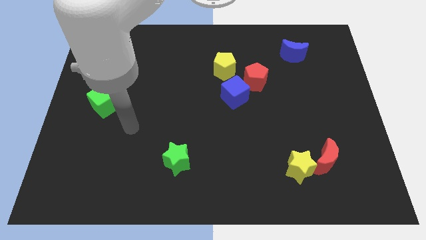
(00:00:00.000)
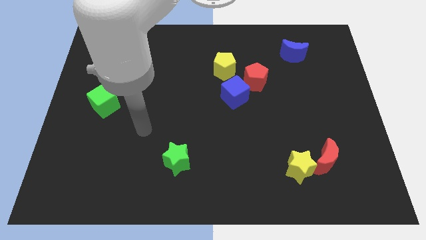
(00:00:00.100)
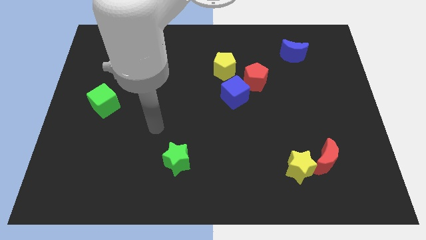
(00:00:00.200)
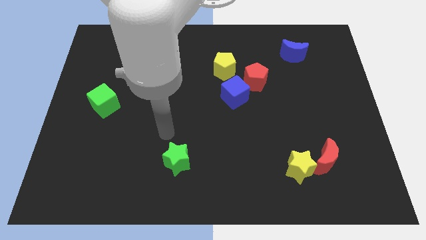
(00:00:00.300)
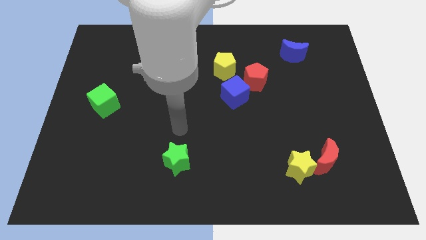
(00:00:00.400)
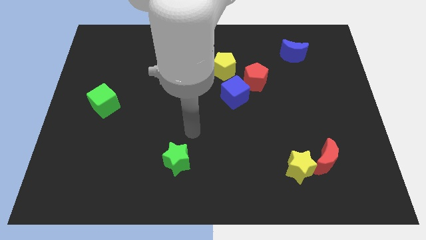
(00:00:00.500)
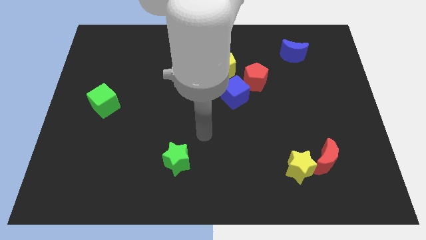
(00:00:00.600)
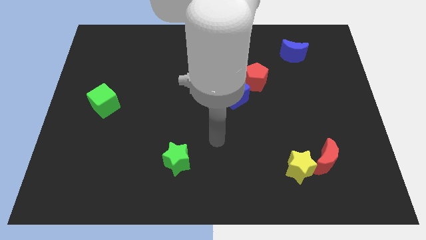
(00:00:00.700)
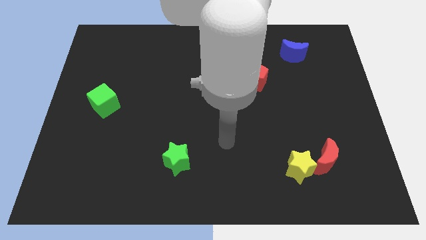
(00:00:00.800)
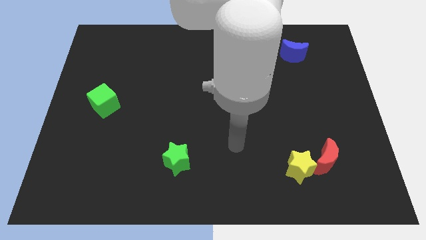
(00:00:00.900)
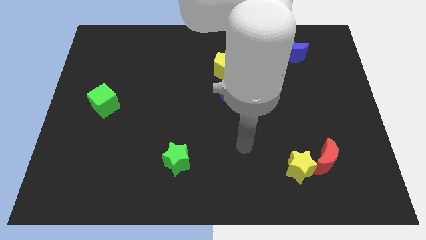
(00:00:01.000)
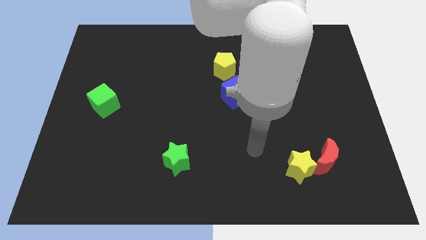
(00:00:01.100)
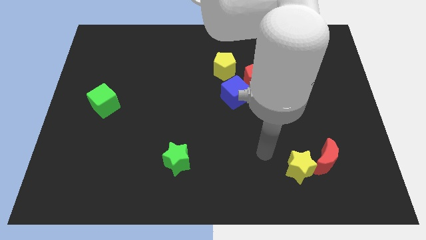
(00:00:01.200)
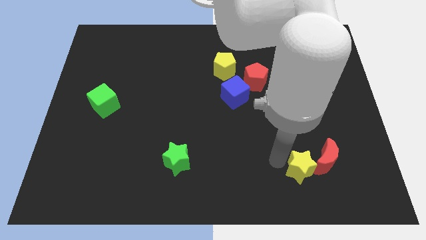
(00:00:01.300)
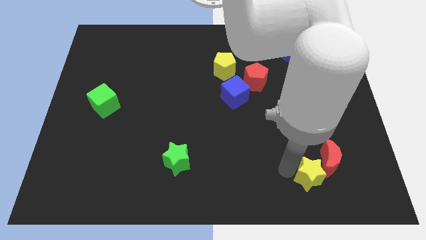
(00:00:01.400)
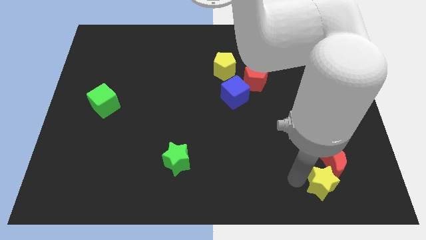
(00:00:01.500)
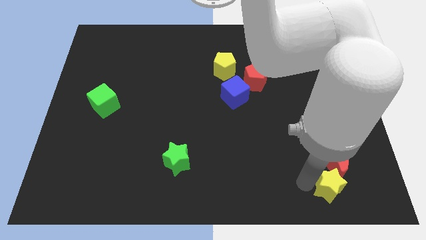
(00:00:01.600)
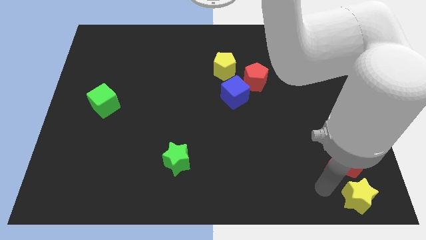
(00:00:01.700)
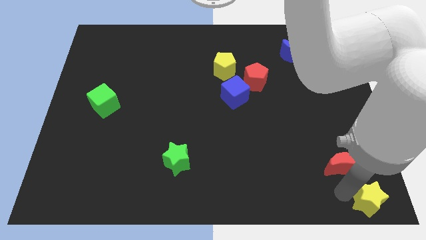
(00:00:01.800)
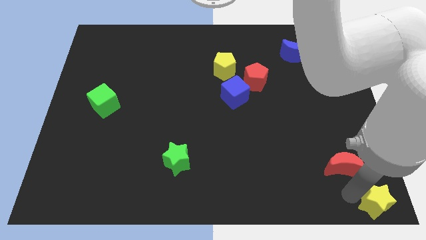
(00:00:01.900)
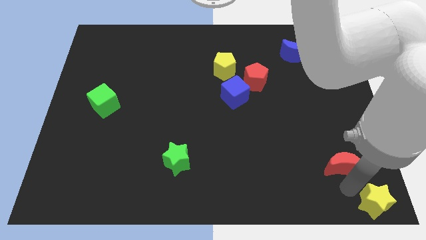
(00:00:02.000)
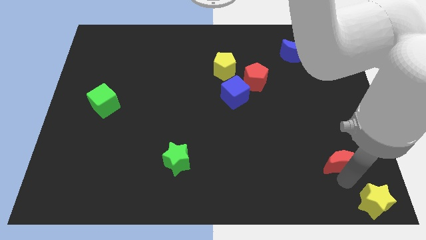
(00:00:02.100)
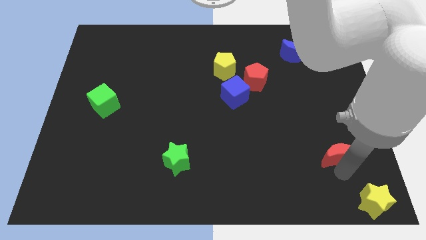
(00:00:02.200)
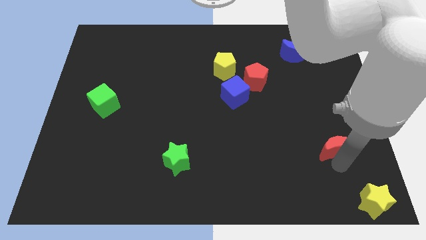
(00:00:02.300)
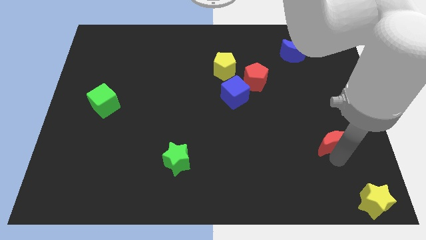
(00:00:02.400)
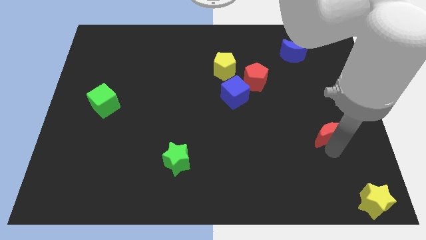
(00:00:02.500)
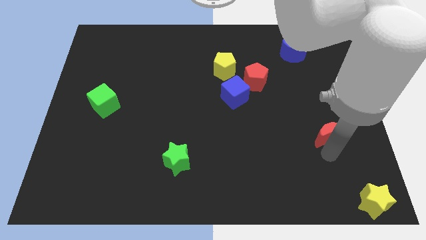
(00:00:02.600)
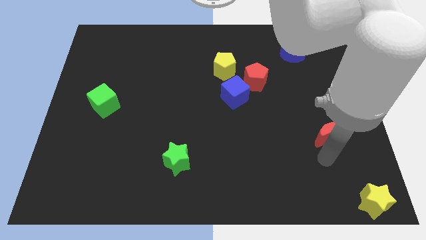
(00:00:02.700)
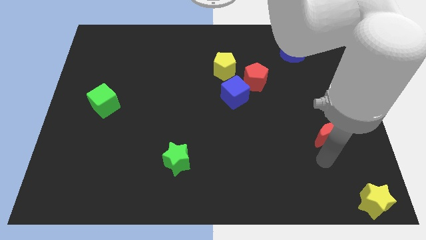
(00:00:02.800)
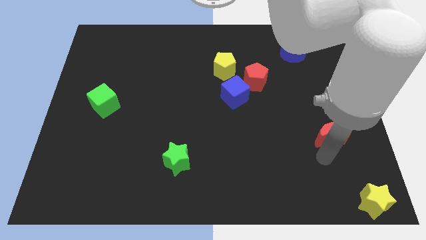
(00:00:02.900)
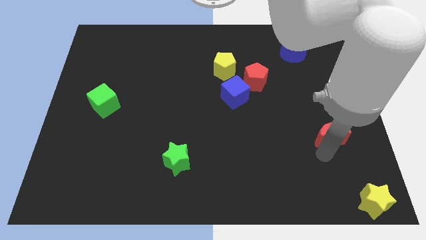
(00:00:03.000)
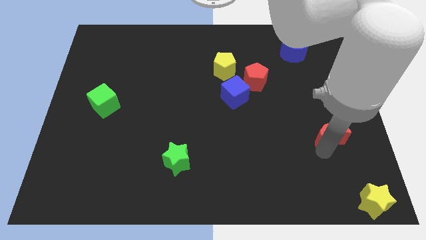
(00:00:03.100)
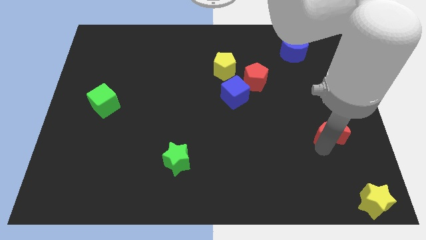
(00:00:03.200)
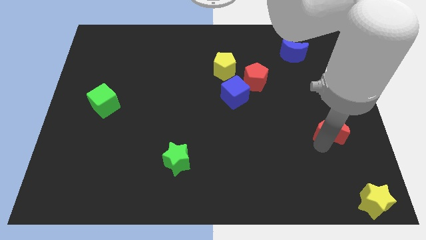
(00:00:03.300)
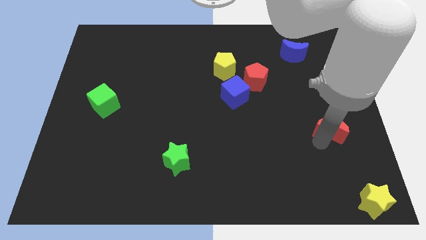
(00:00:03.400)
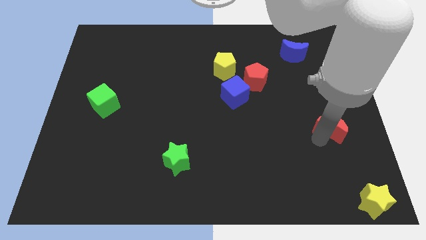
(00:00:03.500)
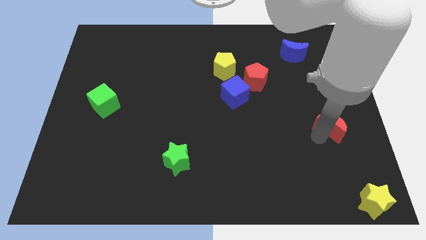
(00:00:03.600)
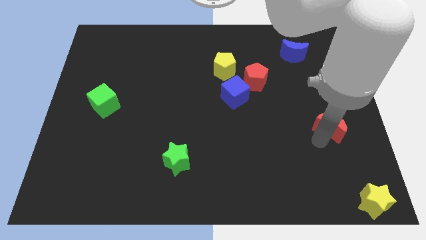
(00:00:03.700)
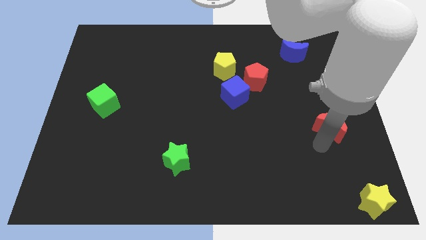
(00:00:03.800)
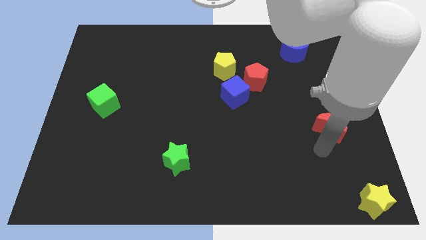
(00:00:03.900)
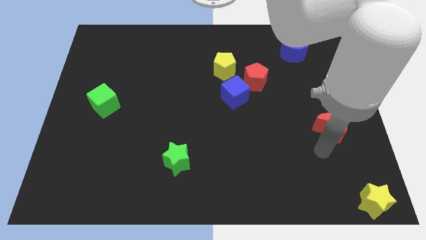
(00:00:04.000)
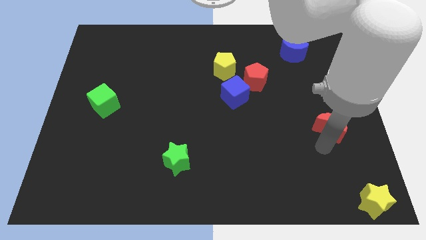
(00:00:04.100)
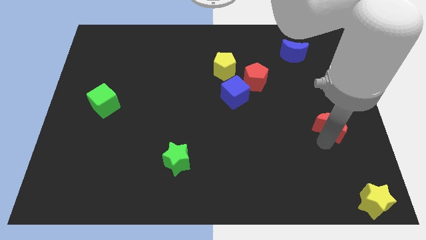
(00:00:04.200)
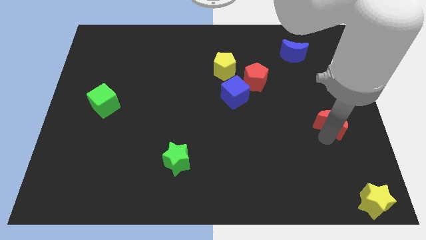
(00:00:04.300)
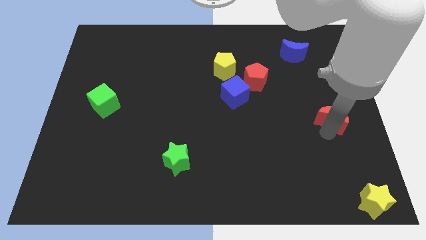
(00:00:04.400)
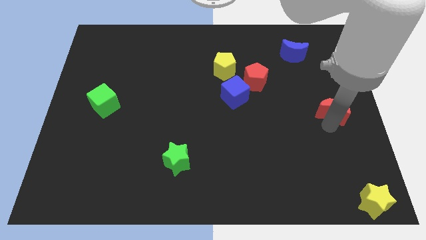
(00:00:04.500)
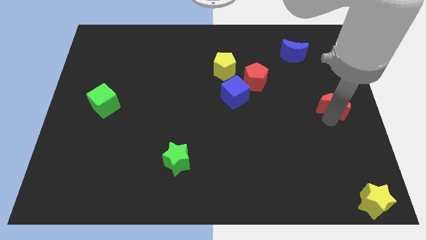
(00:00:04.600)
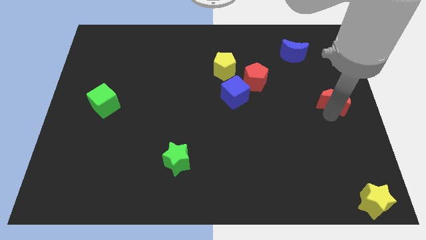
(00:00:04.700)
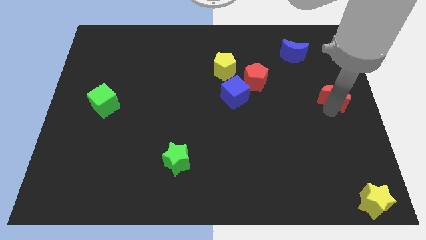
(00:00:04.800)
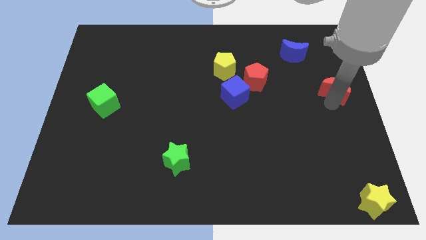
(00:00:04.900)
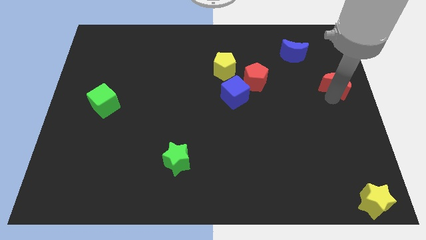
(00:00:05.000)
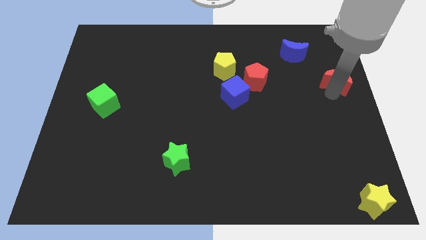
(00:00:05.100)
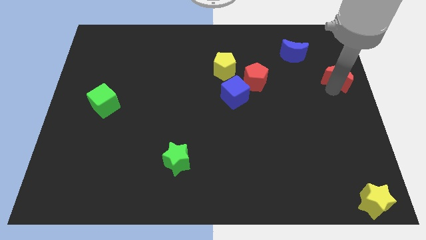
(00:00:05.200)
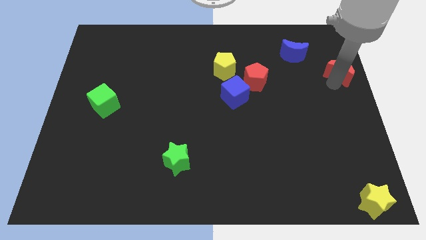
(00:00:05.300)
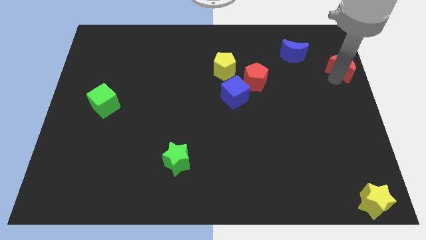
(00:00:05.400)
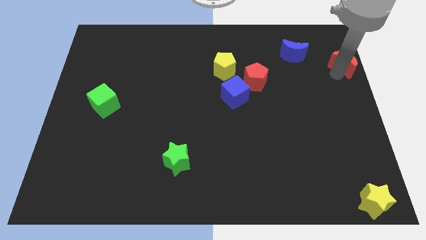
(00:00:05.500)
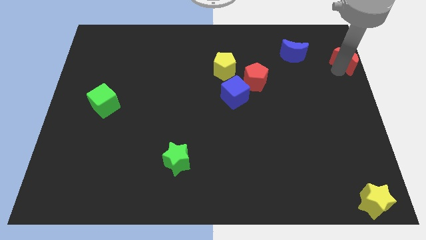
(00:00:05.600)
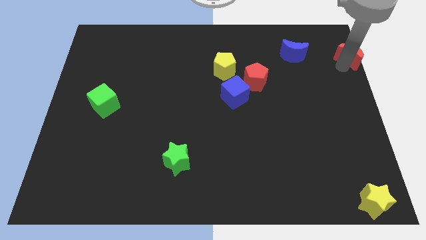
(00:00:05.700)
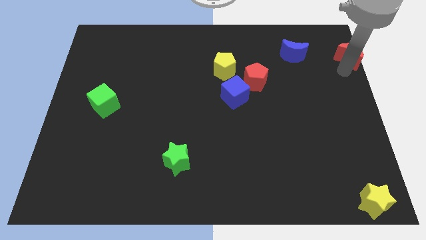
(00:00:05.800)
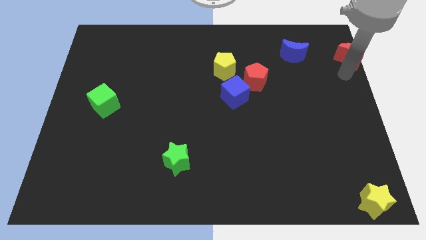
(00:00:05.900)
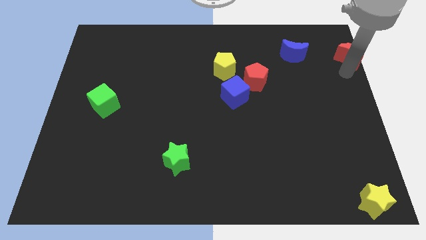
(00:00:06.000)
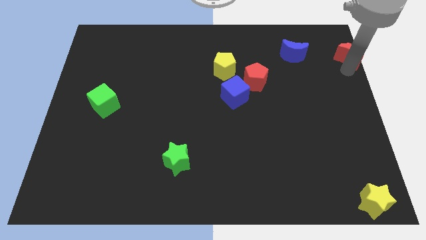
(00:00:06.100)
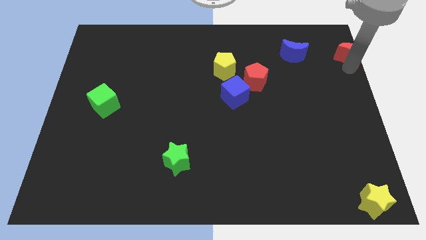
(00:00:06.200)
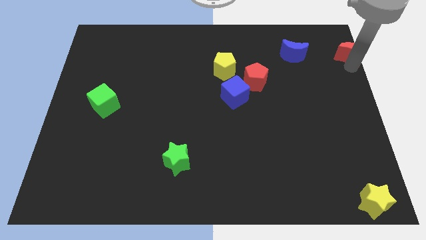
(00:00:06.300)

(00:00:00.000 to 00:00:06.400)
put the red moon to the top right

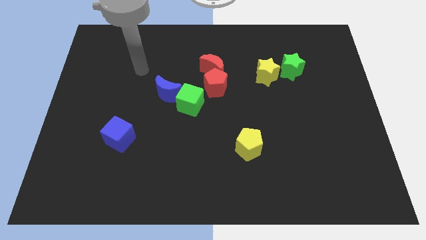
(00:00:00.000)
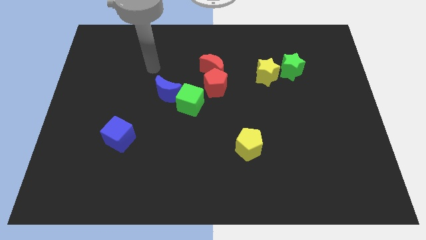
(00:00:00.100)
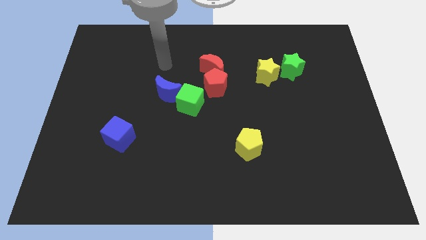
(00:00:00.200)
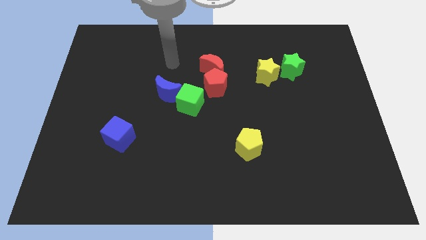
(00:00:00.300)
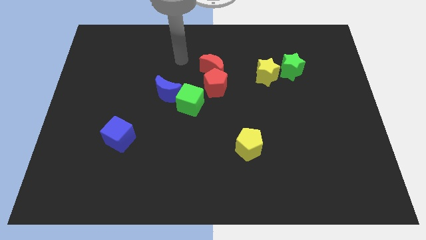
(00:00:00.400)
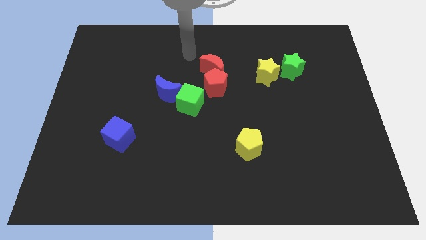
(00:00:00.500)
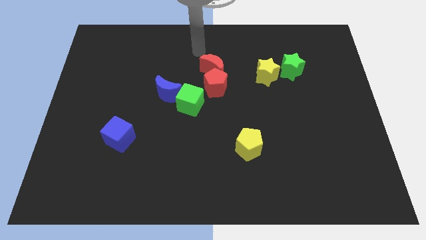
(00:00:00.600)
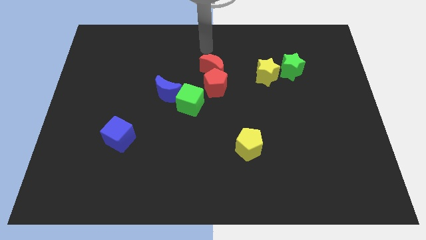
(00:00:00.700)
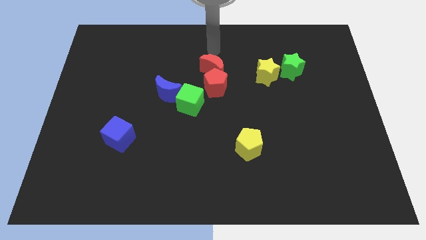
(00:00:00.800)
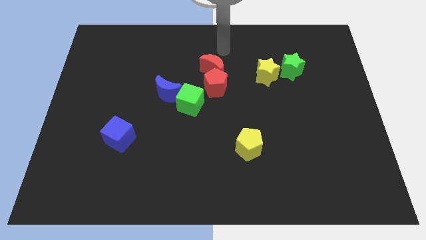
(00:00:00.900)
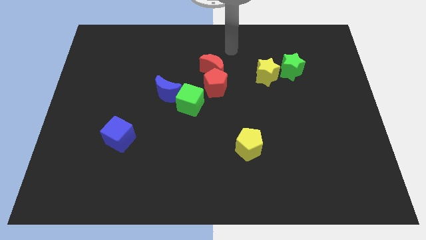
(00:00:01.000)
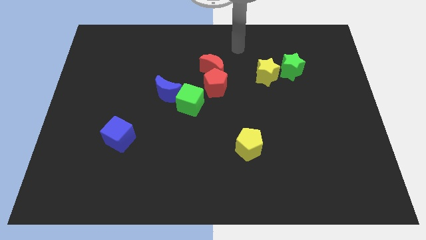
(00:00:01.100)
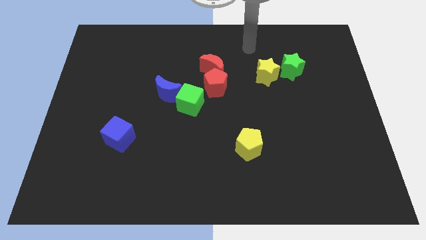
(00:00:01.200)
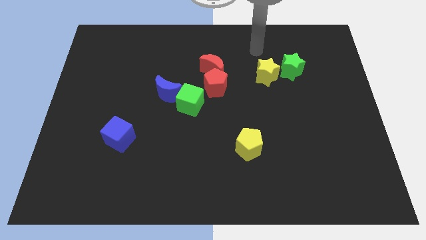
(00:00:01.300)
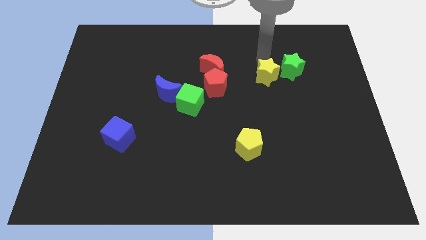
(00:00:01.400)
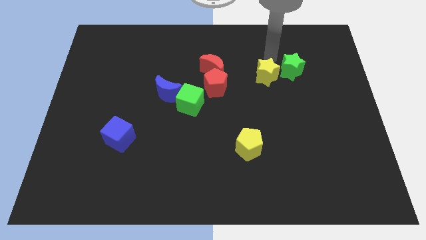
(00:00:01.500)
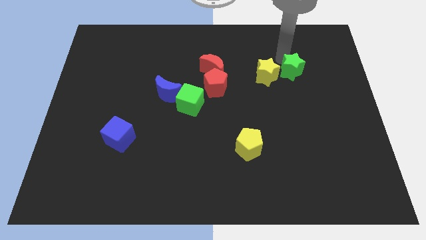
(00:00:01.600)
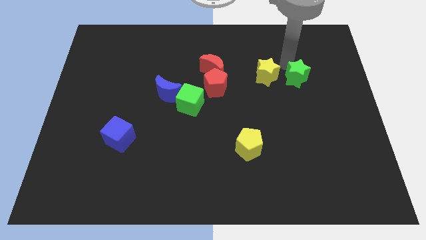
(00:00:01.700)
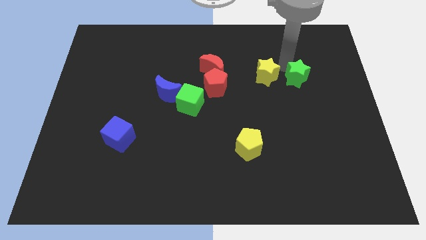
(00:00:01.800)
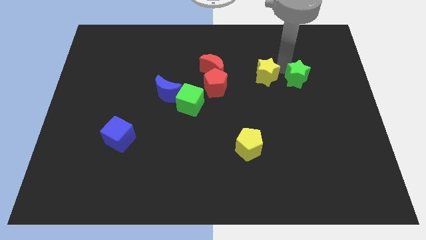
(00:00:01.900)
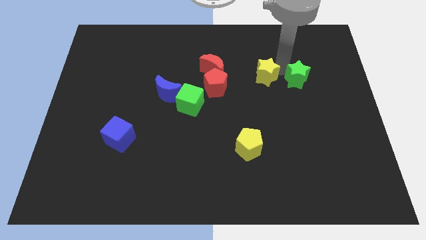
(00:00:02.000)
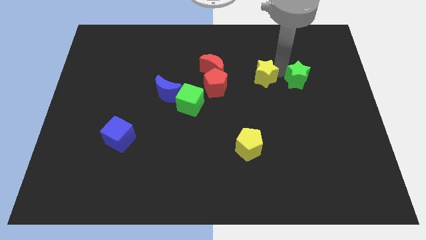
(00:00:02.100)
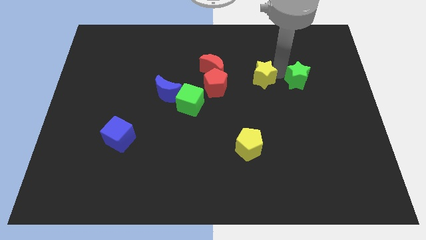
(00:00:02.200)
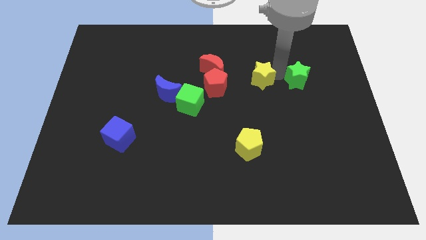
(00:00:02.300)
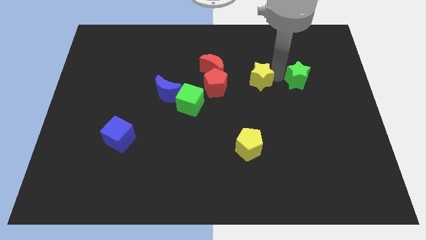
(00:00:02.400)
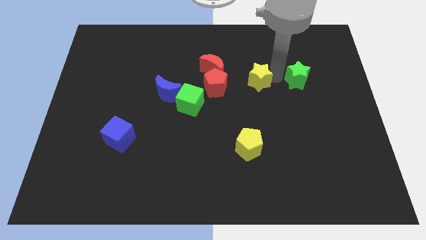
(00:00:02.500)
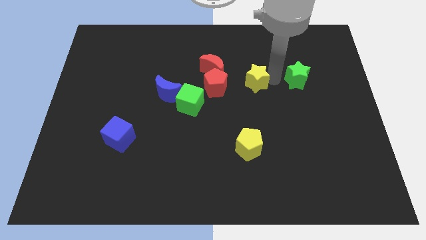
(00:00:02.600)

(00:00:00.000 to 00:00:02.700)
slide the yellow star to the center of the board
